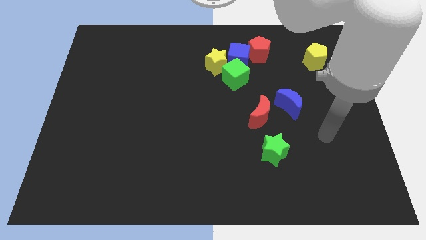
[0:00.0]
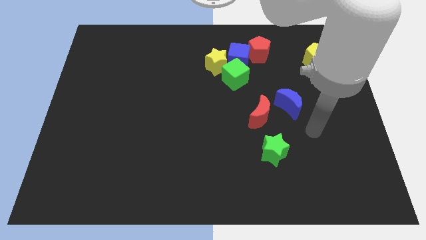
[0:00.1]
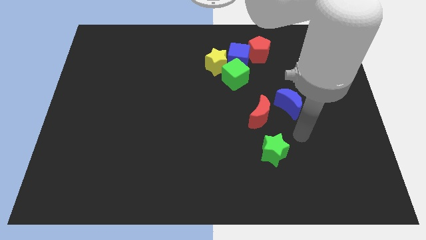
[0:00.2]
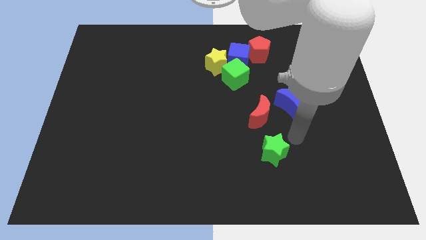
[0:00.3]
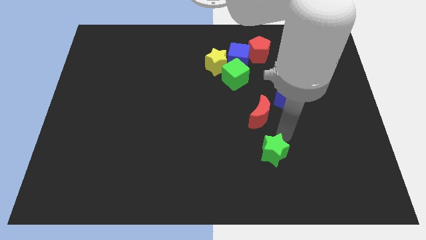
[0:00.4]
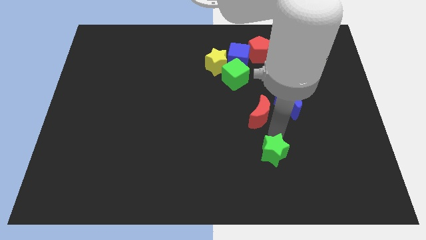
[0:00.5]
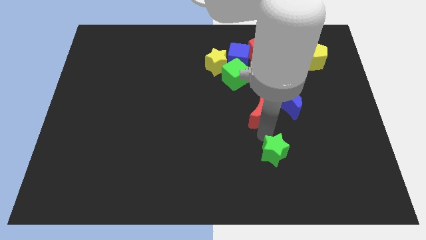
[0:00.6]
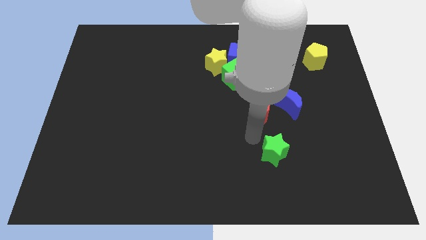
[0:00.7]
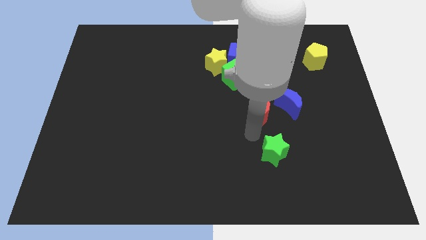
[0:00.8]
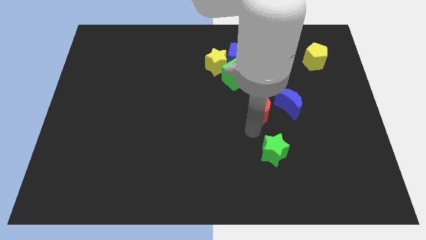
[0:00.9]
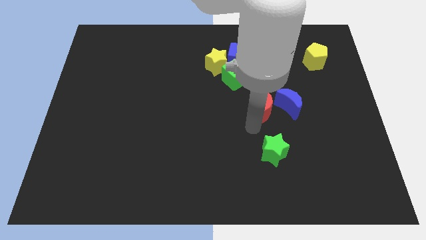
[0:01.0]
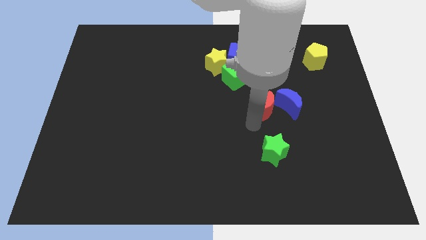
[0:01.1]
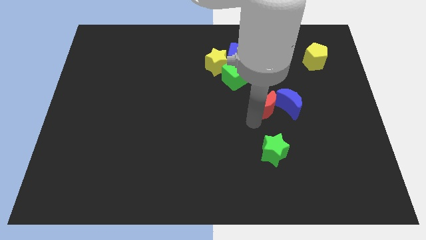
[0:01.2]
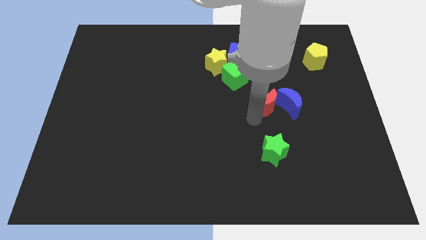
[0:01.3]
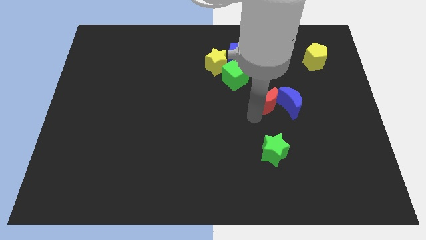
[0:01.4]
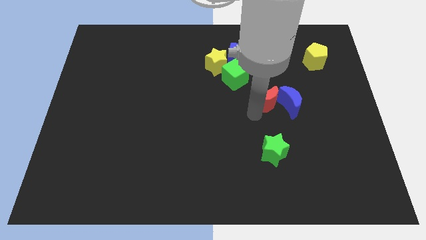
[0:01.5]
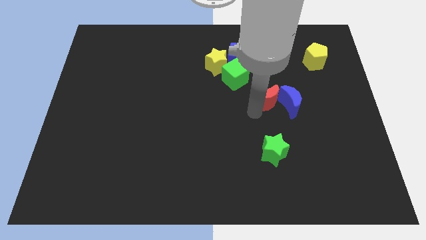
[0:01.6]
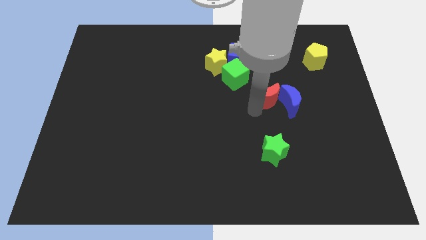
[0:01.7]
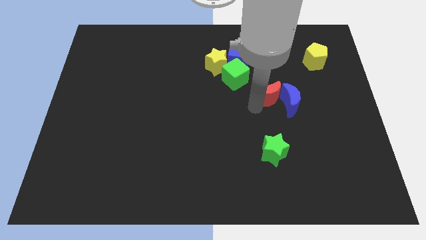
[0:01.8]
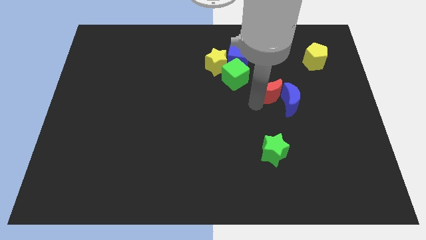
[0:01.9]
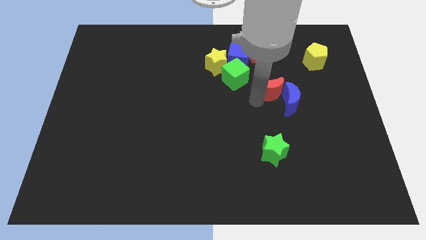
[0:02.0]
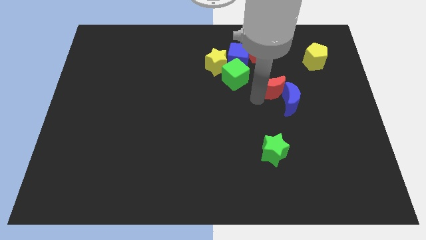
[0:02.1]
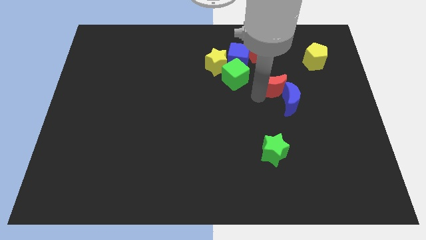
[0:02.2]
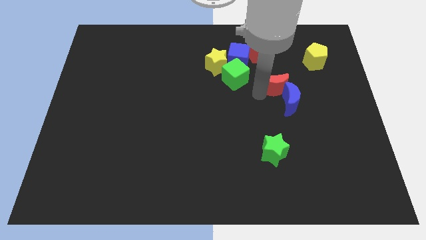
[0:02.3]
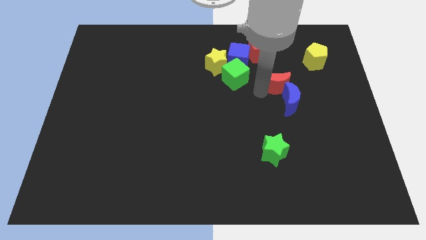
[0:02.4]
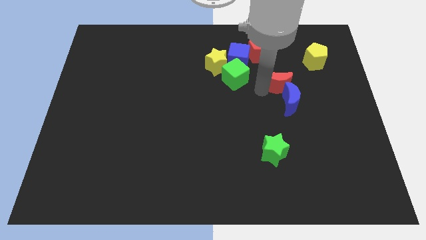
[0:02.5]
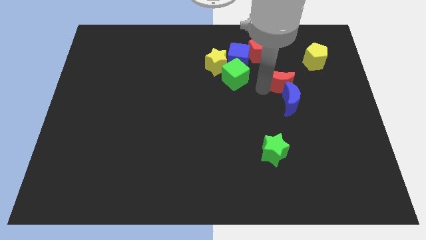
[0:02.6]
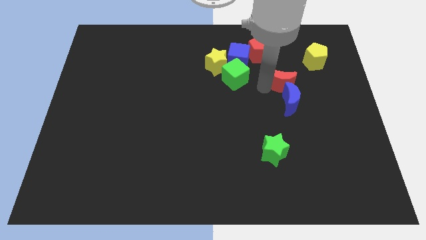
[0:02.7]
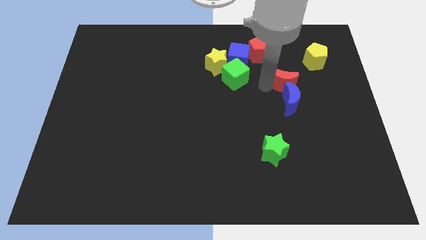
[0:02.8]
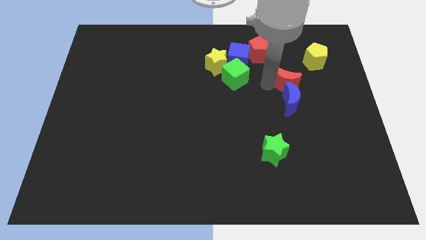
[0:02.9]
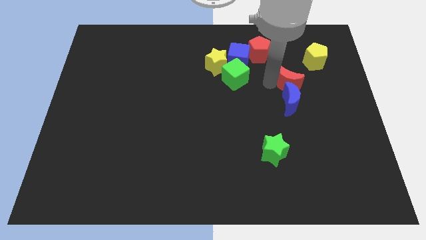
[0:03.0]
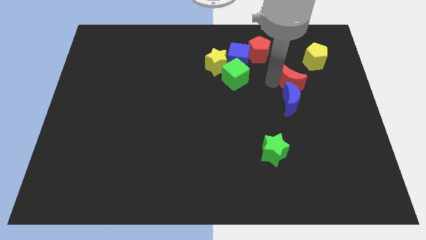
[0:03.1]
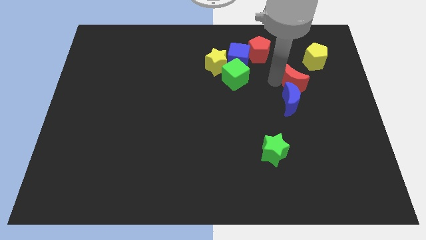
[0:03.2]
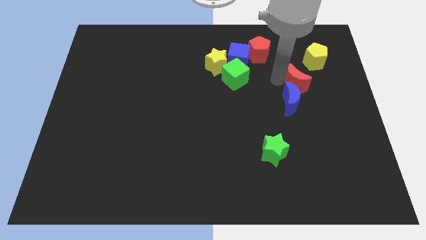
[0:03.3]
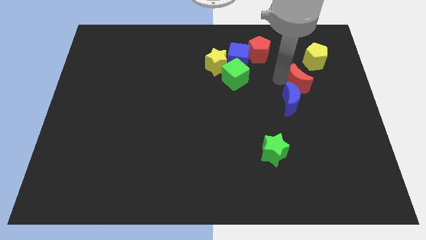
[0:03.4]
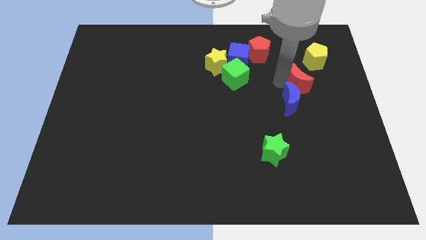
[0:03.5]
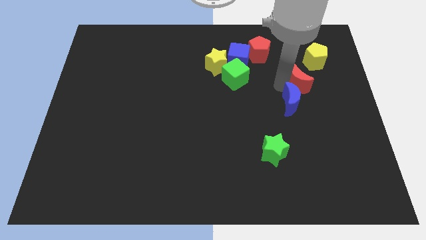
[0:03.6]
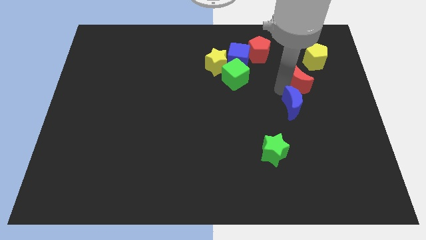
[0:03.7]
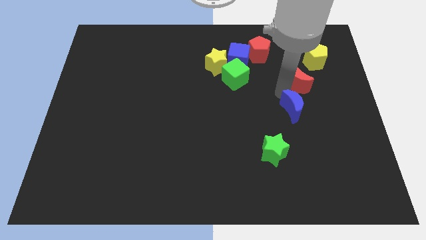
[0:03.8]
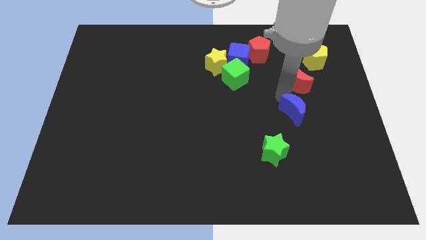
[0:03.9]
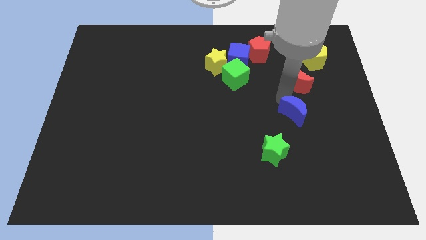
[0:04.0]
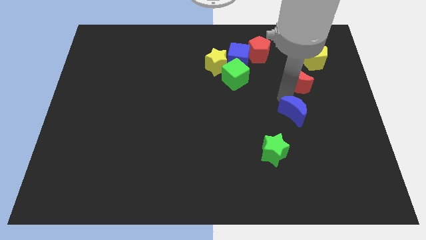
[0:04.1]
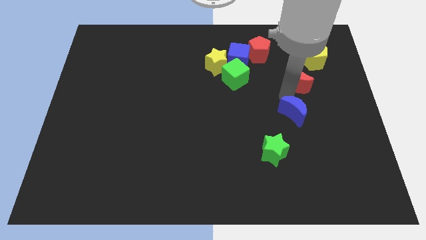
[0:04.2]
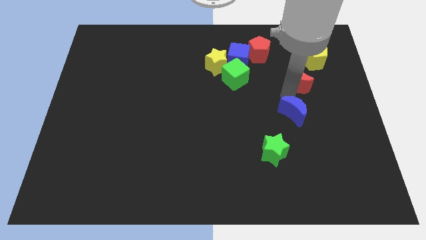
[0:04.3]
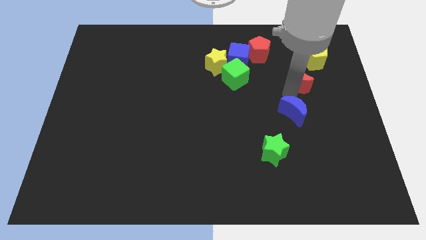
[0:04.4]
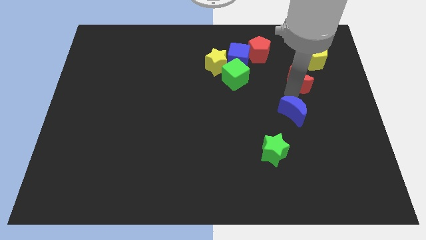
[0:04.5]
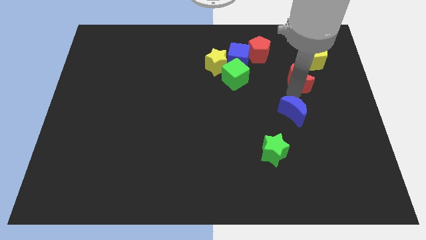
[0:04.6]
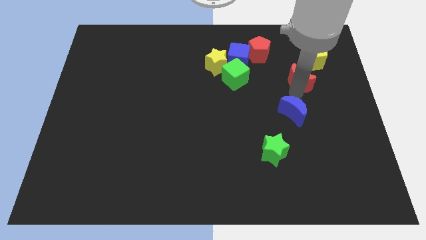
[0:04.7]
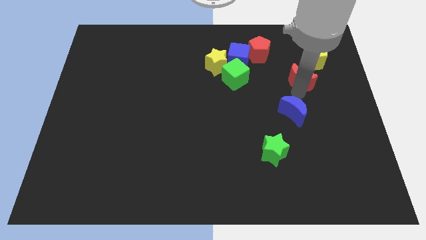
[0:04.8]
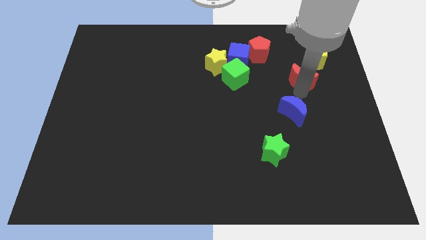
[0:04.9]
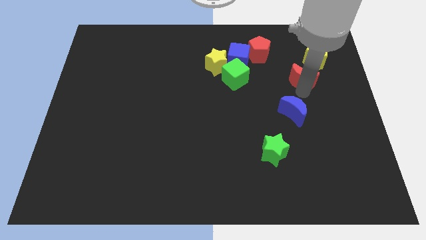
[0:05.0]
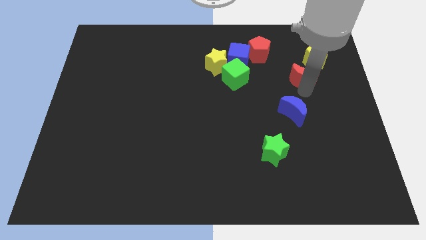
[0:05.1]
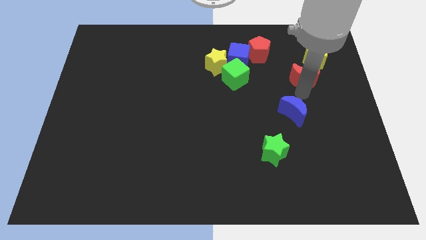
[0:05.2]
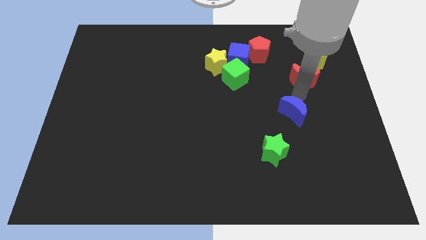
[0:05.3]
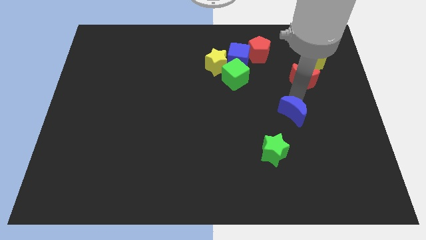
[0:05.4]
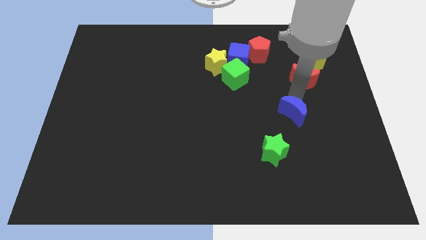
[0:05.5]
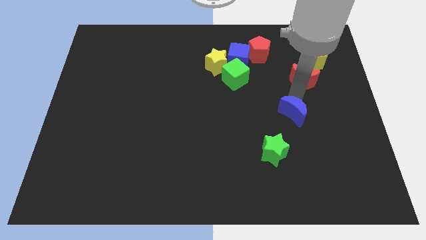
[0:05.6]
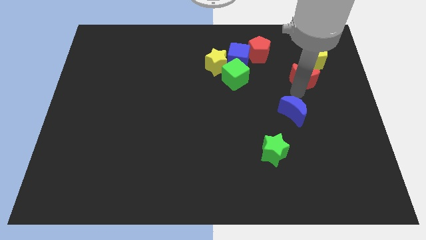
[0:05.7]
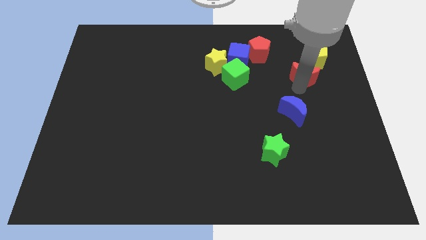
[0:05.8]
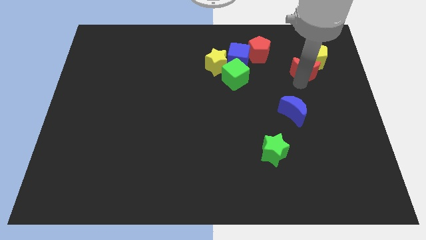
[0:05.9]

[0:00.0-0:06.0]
push the red moon next to the yellow pentagon

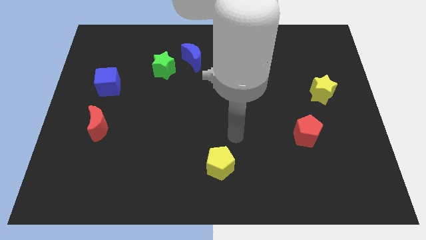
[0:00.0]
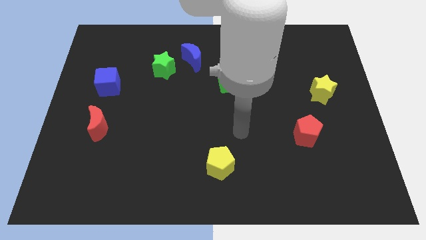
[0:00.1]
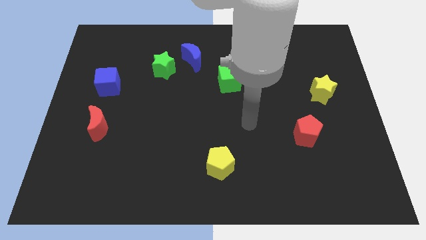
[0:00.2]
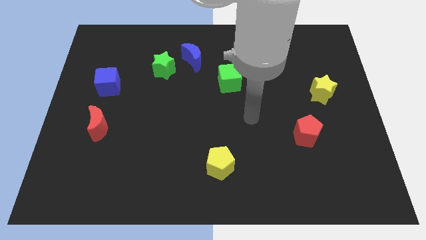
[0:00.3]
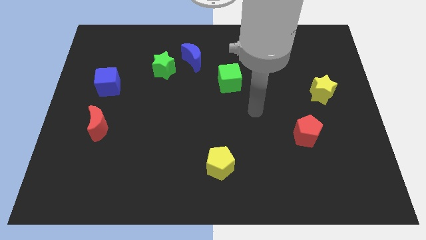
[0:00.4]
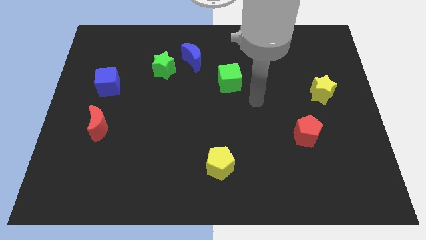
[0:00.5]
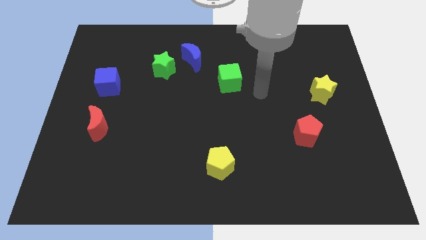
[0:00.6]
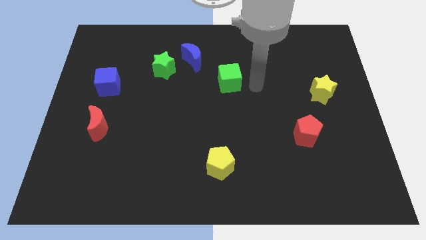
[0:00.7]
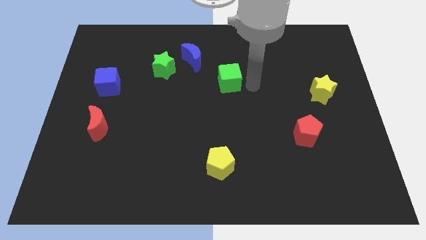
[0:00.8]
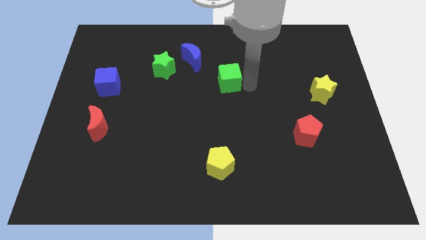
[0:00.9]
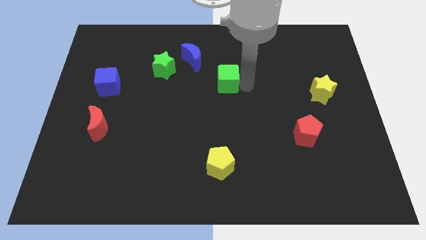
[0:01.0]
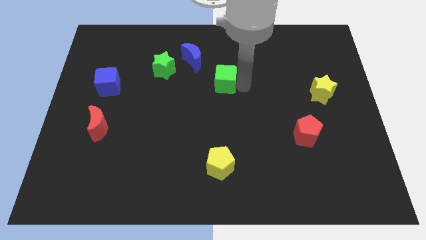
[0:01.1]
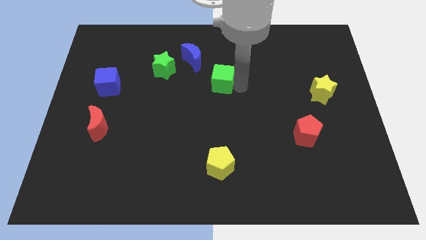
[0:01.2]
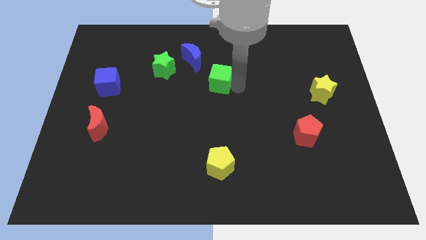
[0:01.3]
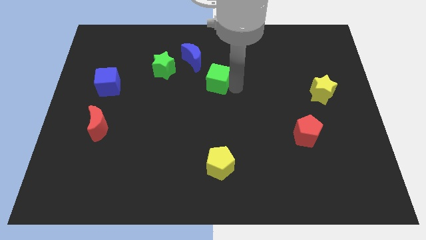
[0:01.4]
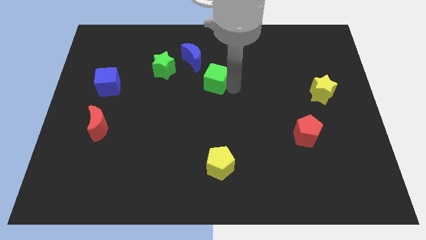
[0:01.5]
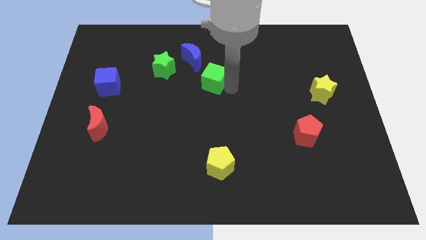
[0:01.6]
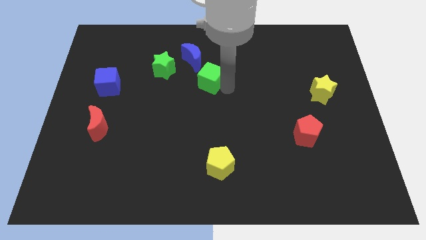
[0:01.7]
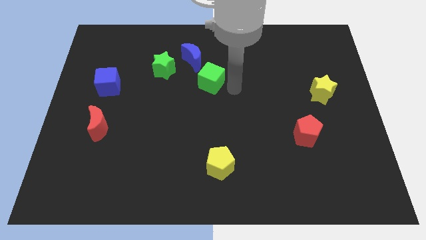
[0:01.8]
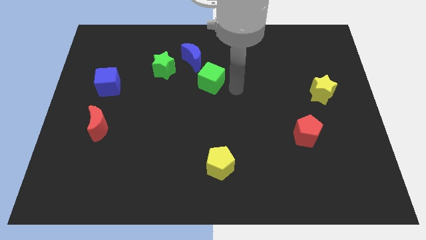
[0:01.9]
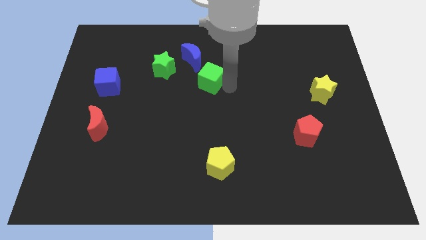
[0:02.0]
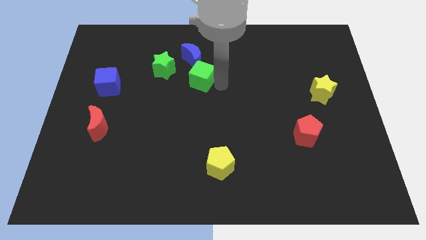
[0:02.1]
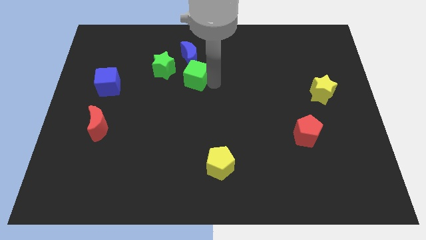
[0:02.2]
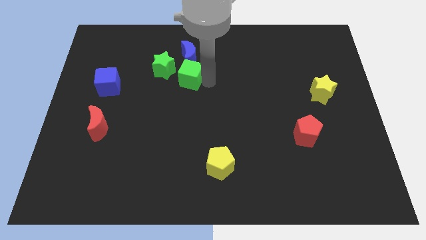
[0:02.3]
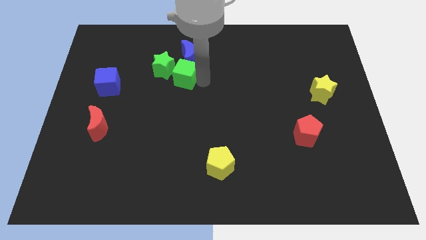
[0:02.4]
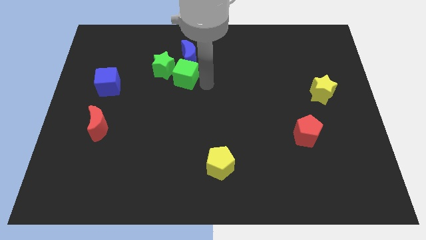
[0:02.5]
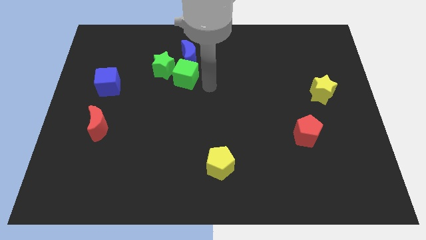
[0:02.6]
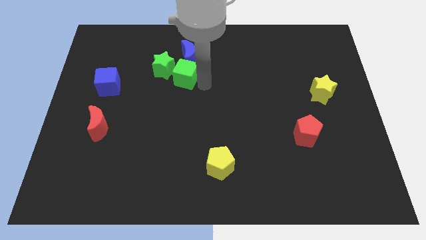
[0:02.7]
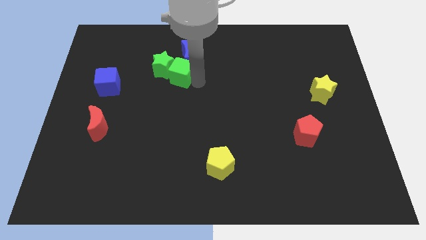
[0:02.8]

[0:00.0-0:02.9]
slide the green cube to the green star
